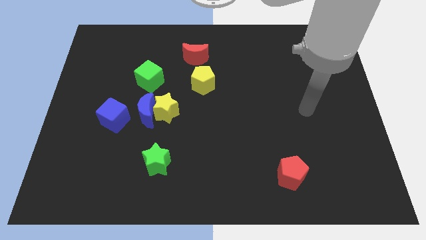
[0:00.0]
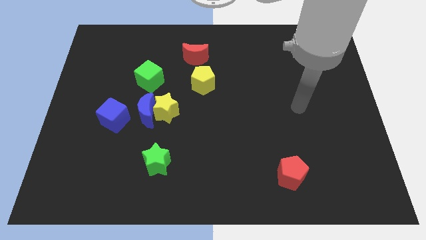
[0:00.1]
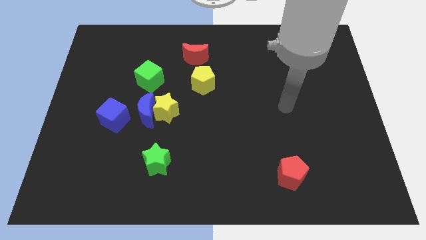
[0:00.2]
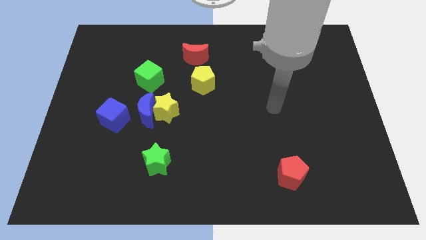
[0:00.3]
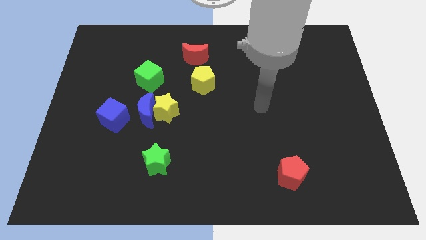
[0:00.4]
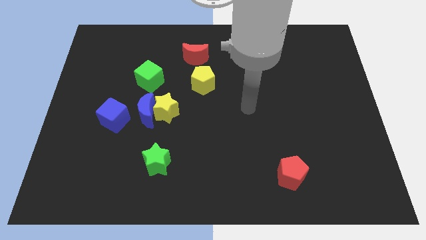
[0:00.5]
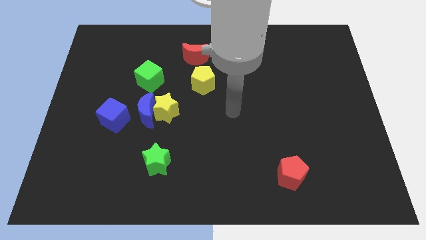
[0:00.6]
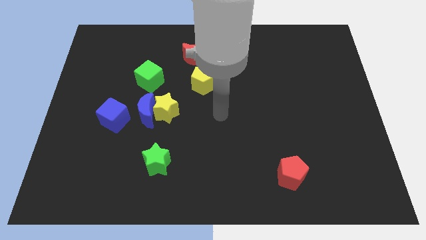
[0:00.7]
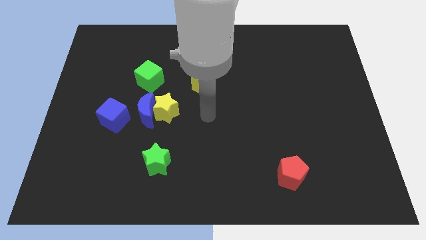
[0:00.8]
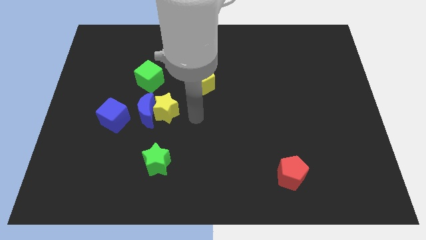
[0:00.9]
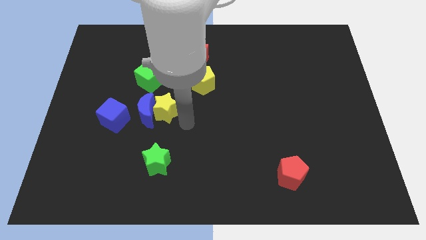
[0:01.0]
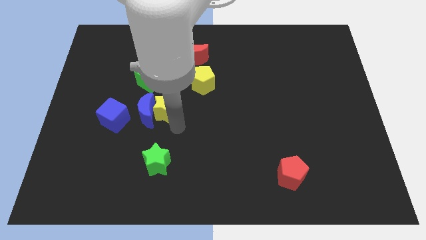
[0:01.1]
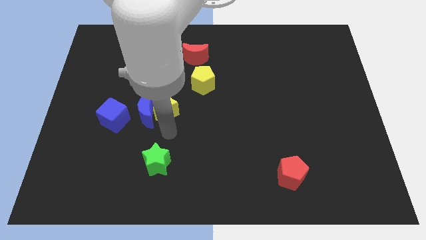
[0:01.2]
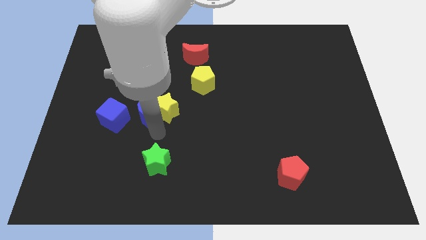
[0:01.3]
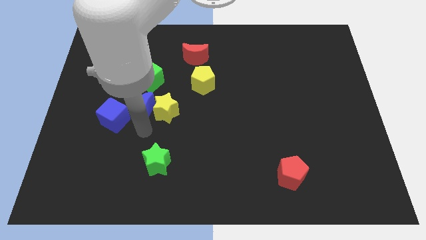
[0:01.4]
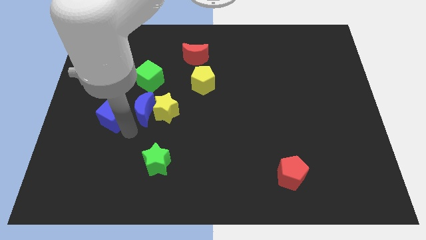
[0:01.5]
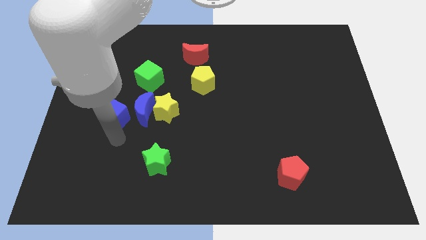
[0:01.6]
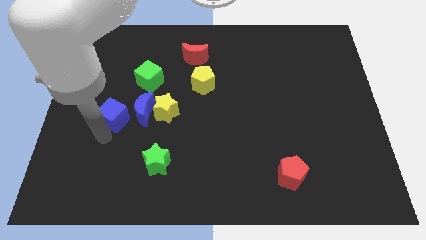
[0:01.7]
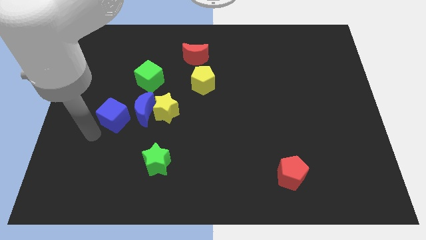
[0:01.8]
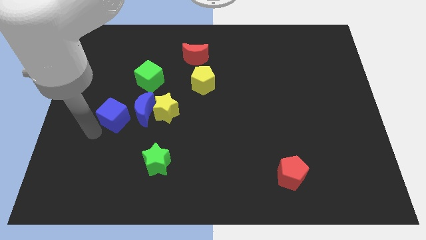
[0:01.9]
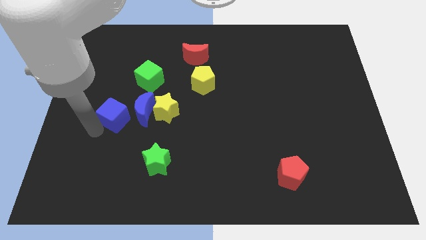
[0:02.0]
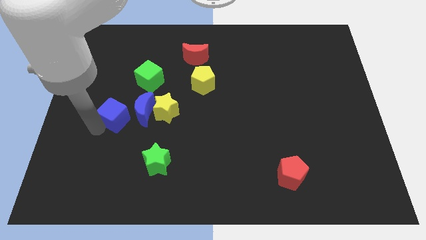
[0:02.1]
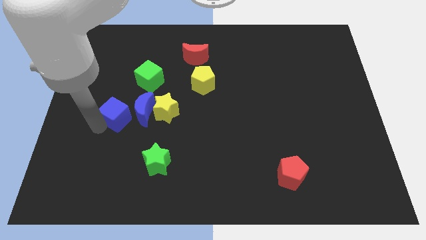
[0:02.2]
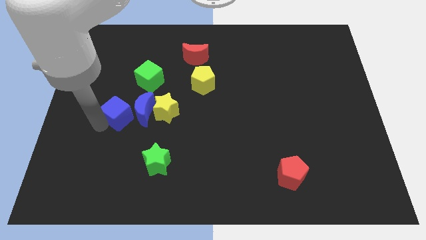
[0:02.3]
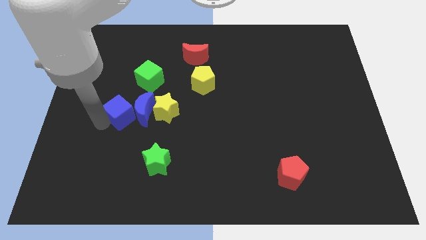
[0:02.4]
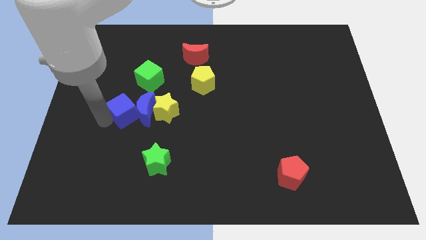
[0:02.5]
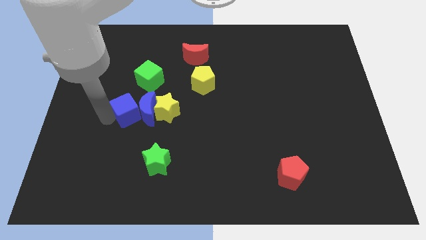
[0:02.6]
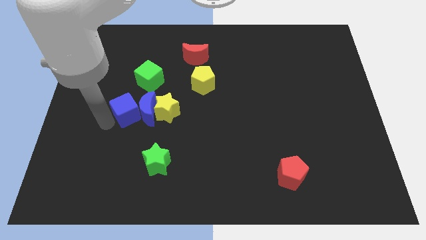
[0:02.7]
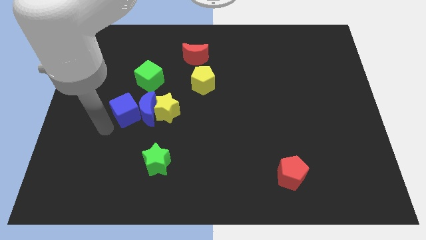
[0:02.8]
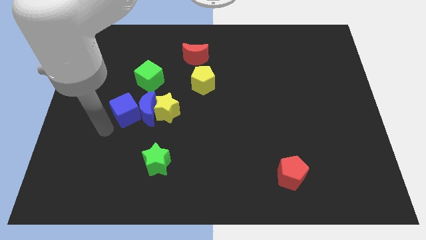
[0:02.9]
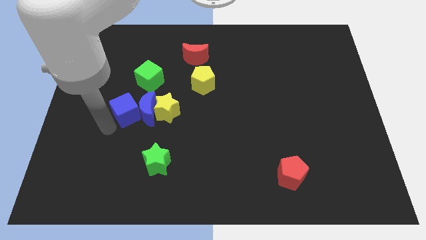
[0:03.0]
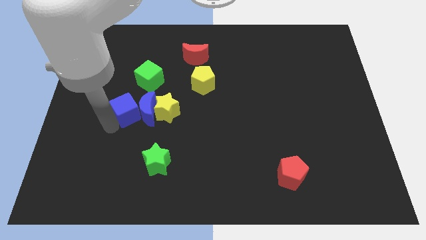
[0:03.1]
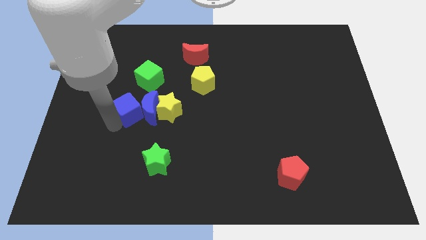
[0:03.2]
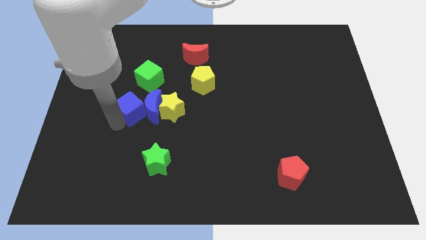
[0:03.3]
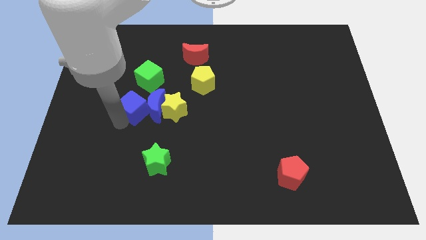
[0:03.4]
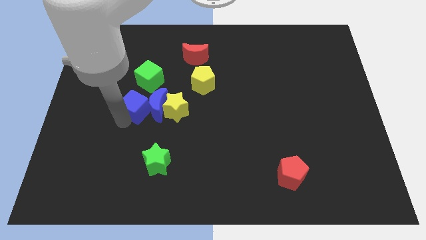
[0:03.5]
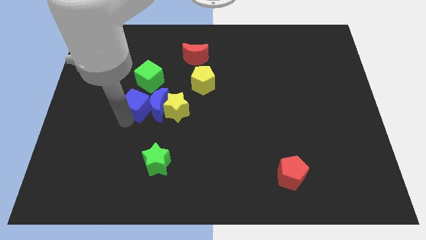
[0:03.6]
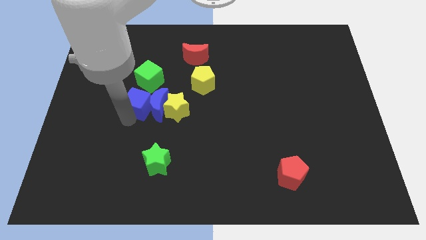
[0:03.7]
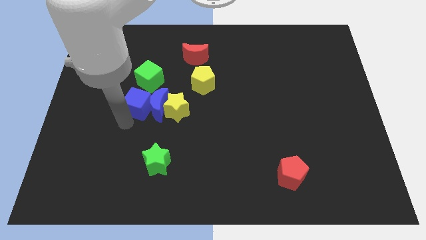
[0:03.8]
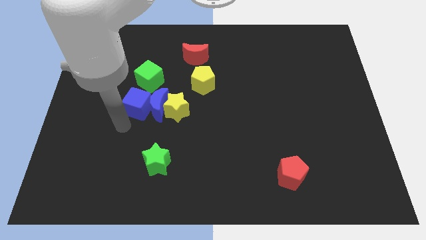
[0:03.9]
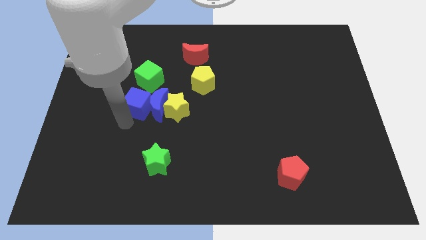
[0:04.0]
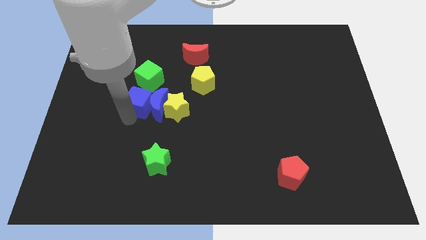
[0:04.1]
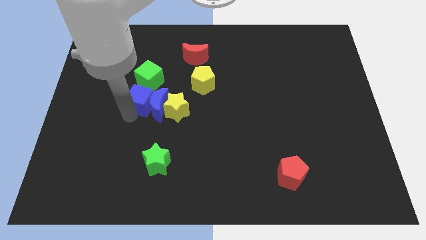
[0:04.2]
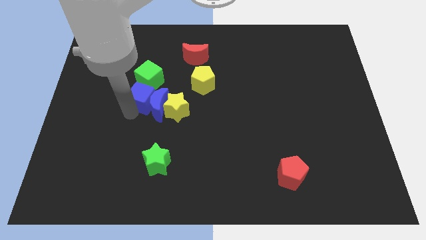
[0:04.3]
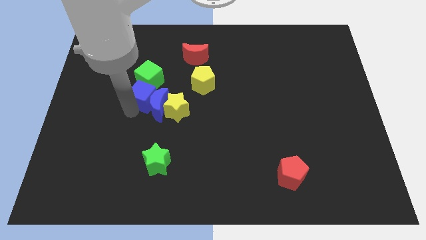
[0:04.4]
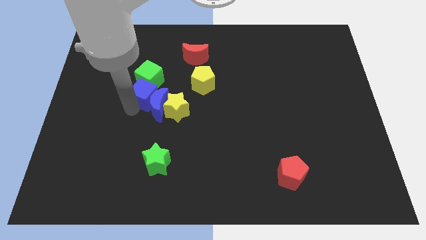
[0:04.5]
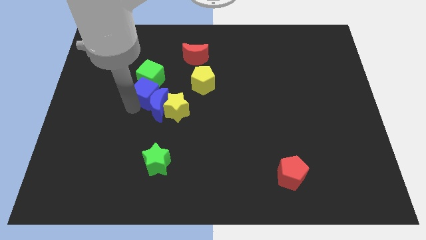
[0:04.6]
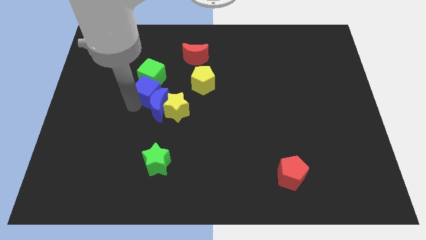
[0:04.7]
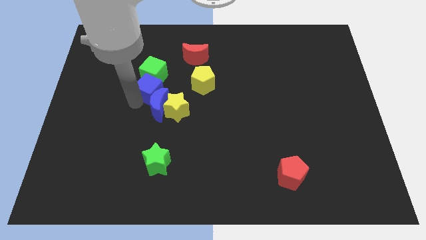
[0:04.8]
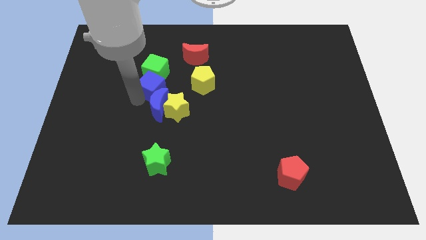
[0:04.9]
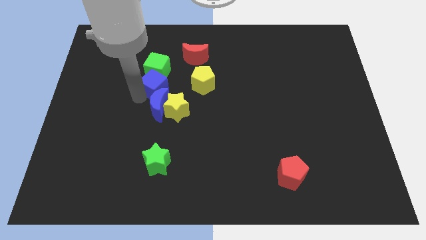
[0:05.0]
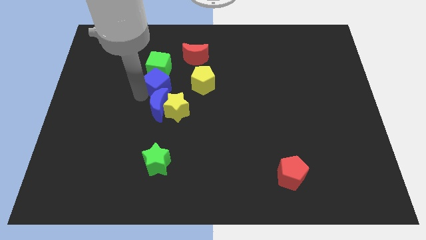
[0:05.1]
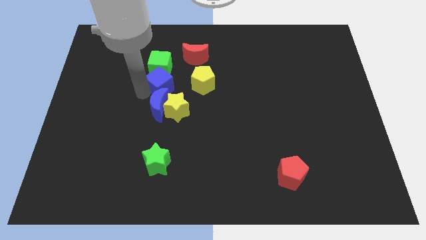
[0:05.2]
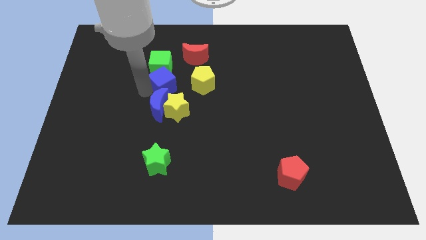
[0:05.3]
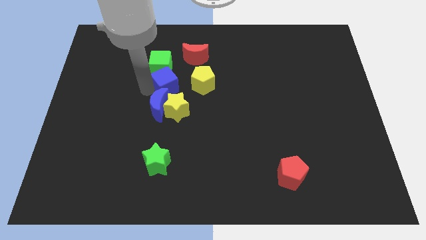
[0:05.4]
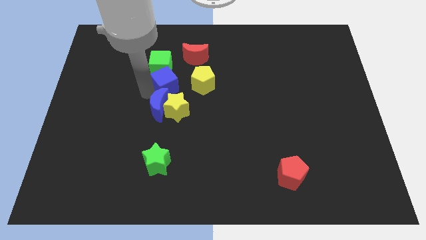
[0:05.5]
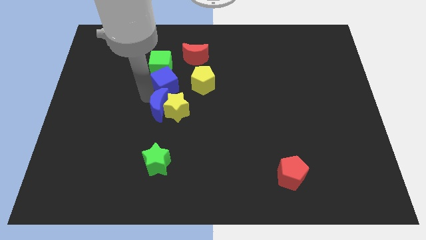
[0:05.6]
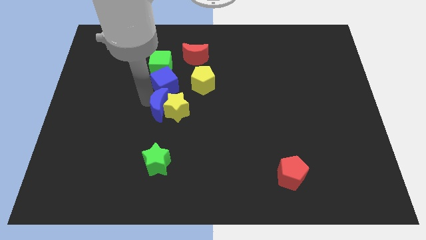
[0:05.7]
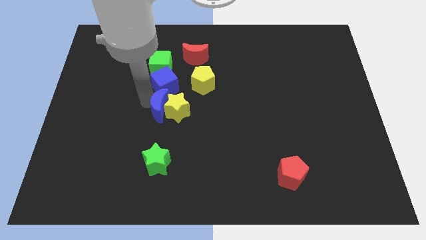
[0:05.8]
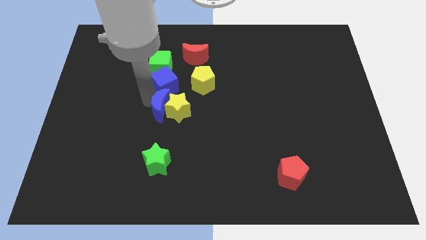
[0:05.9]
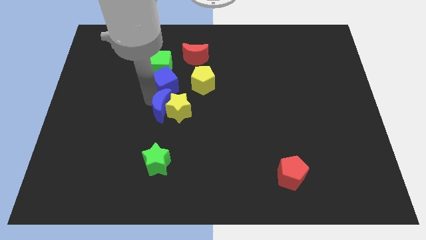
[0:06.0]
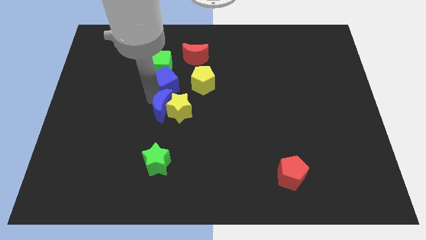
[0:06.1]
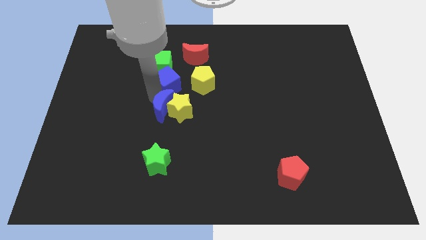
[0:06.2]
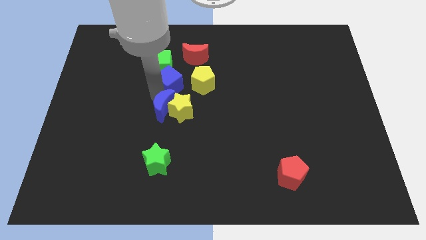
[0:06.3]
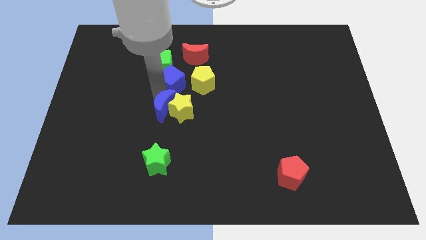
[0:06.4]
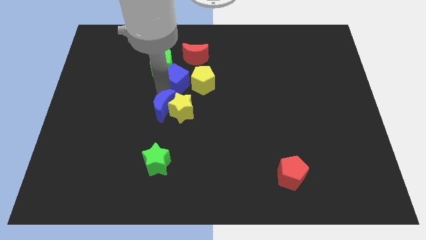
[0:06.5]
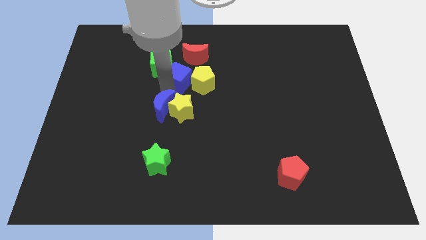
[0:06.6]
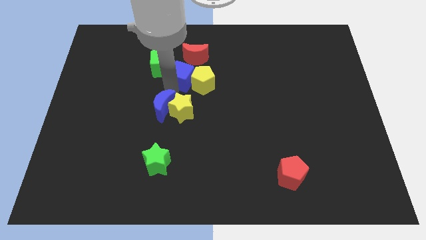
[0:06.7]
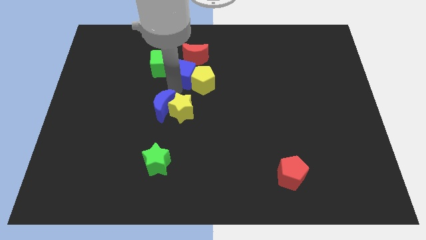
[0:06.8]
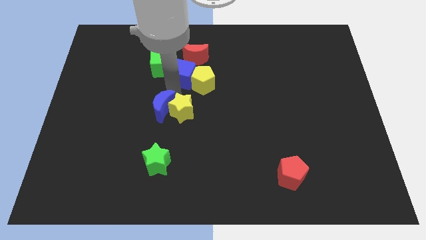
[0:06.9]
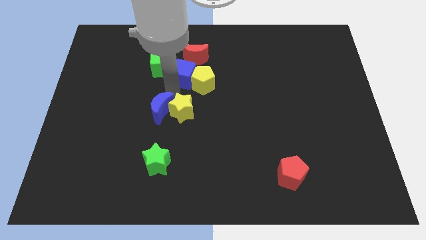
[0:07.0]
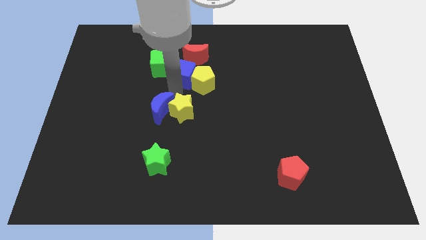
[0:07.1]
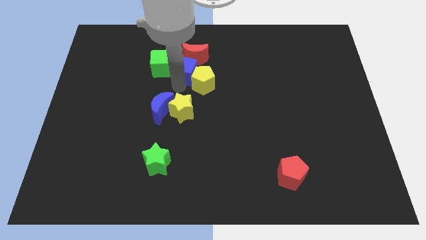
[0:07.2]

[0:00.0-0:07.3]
put the blue cube to the red moon
